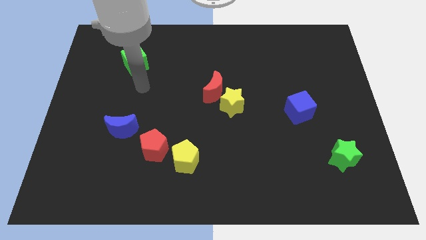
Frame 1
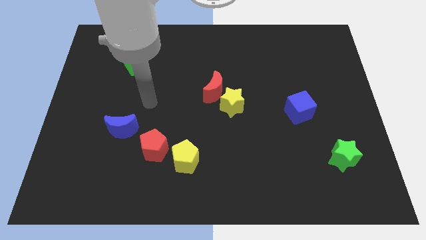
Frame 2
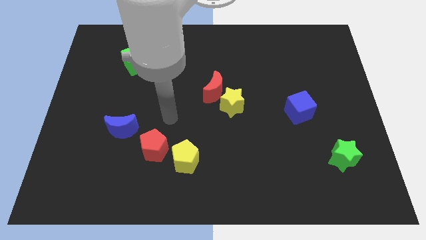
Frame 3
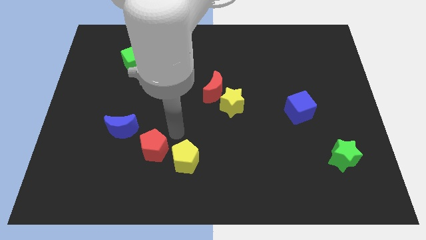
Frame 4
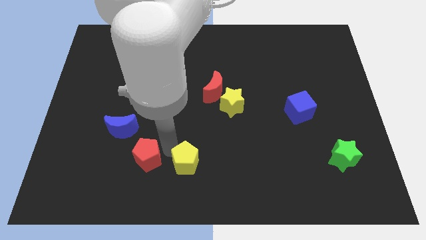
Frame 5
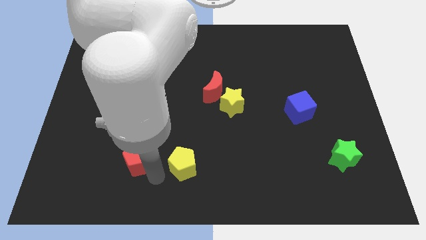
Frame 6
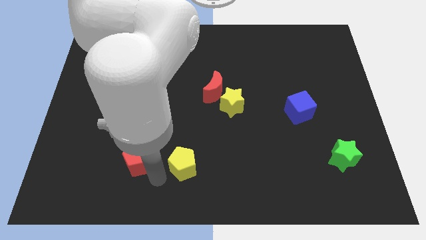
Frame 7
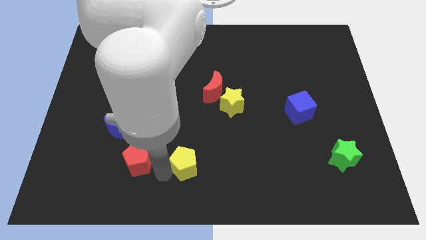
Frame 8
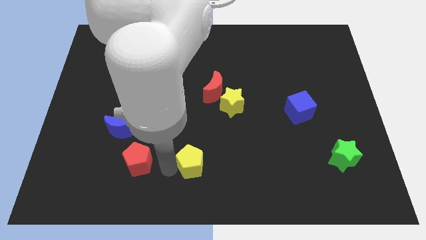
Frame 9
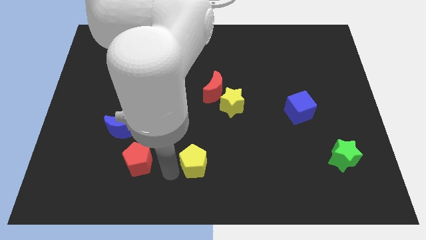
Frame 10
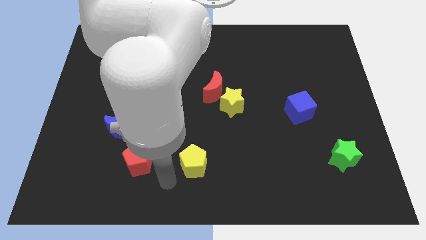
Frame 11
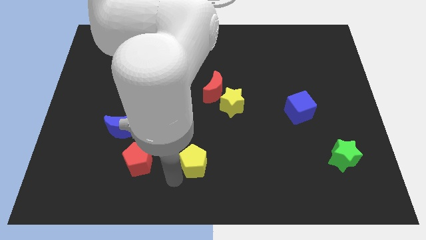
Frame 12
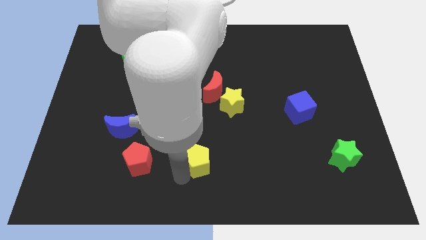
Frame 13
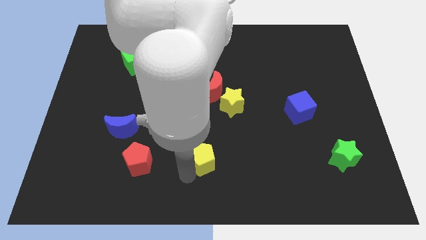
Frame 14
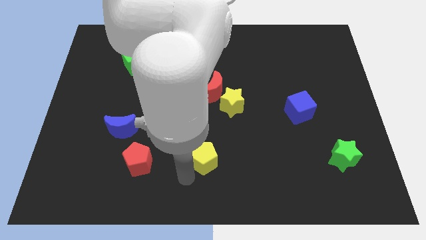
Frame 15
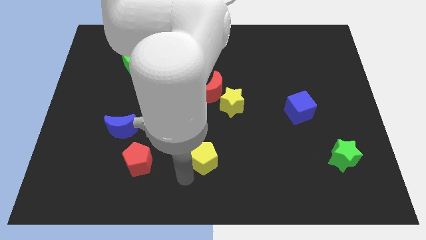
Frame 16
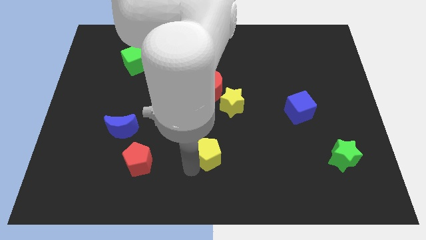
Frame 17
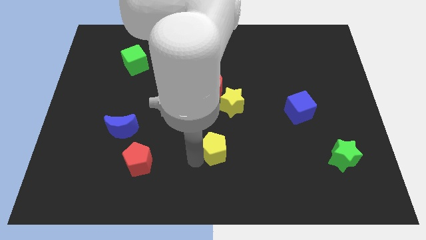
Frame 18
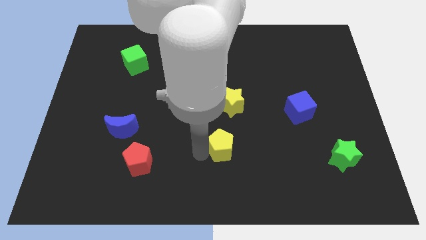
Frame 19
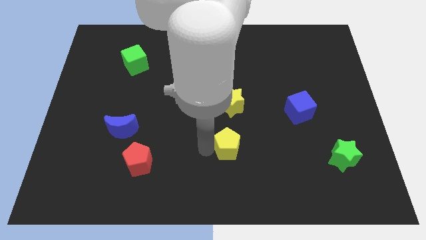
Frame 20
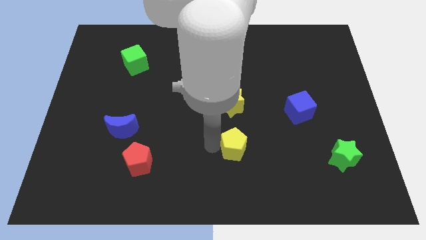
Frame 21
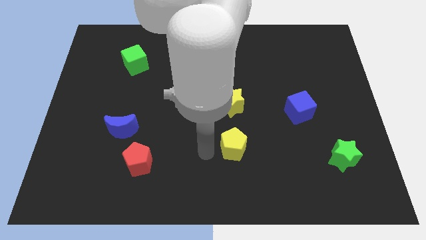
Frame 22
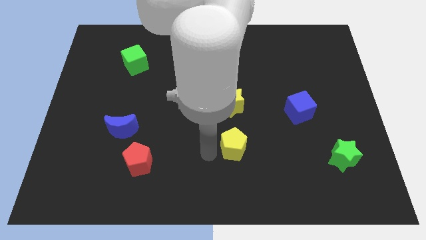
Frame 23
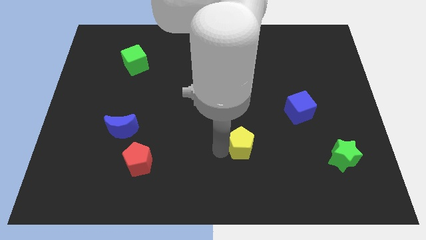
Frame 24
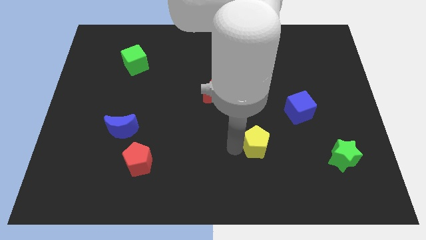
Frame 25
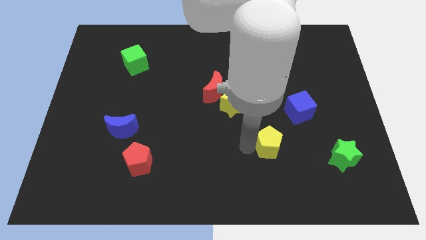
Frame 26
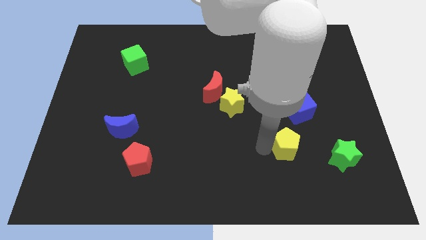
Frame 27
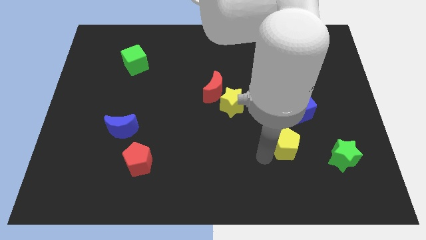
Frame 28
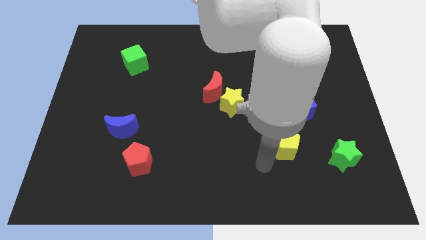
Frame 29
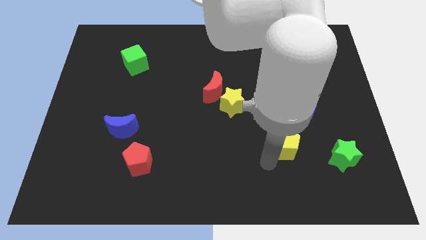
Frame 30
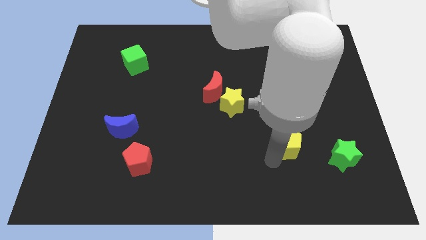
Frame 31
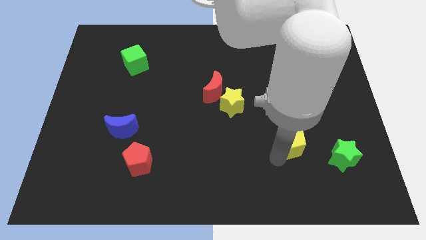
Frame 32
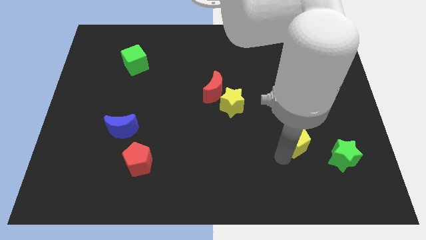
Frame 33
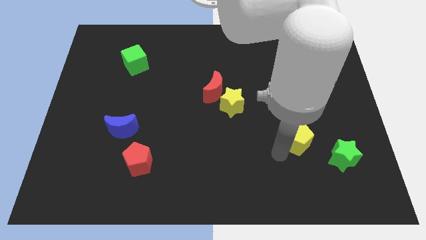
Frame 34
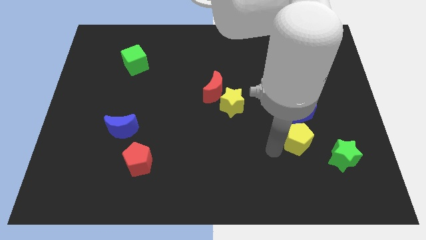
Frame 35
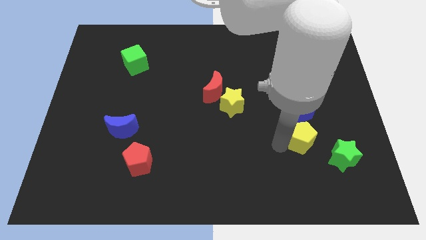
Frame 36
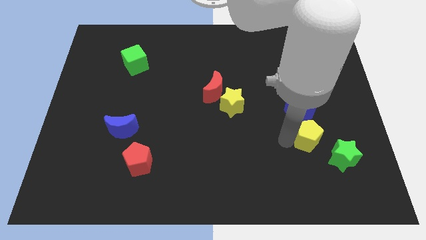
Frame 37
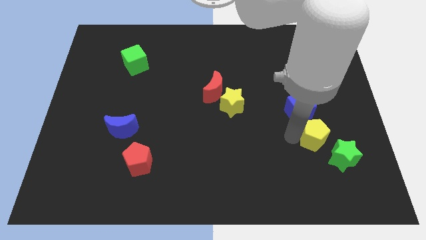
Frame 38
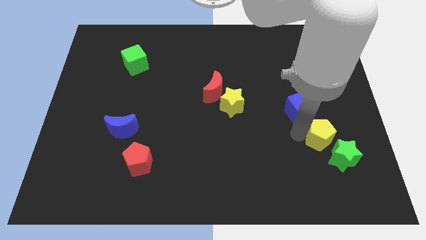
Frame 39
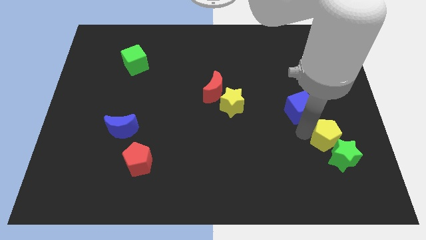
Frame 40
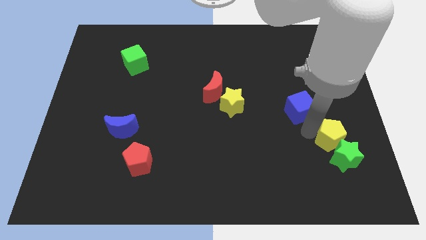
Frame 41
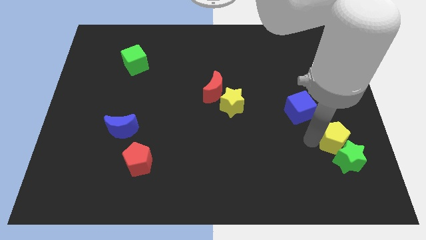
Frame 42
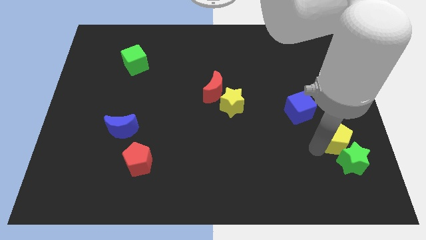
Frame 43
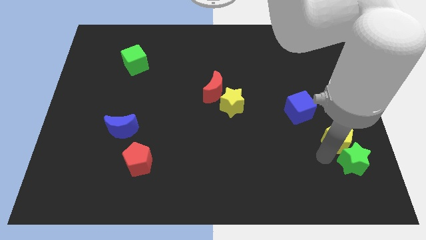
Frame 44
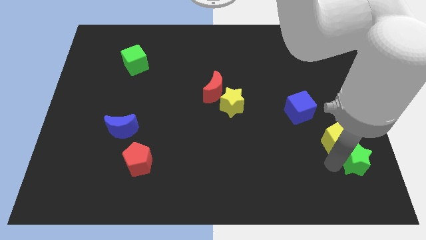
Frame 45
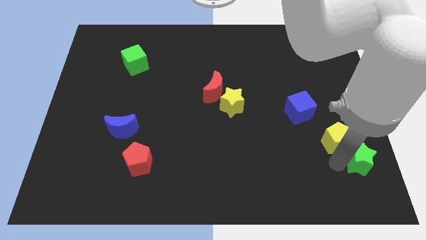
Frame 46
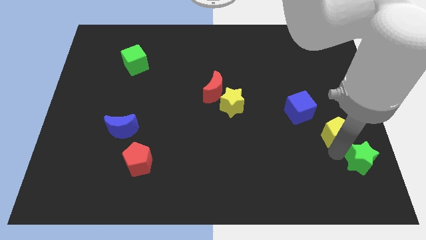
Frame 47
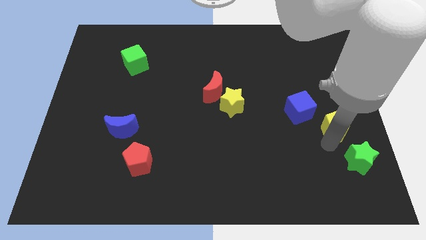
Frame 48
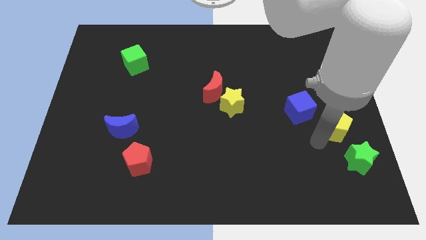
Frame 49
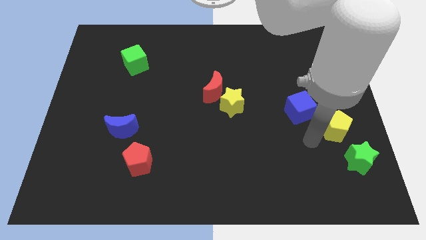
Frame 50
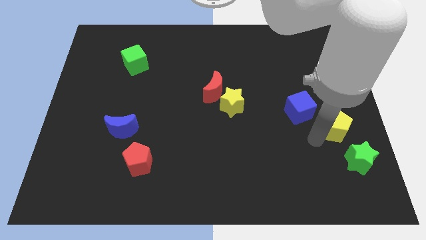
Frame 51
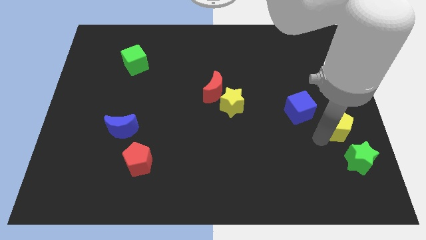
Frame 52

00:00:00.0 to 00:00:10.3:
slide the yellow pentagon to the right side of the board

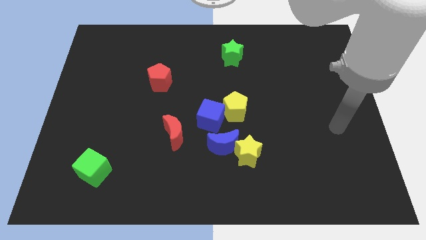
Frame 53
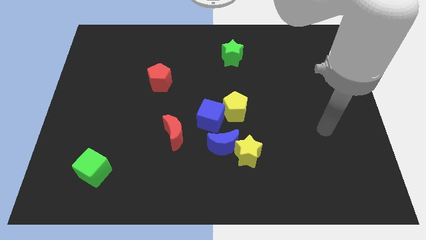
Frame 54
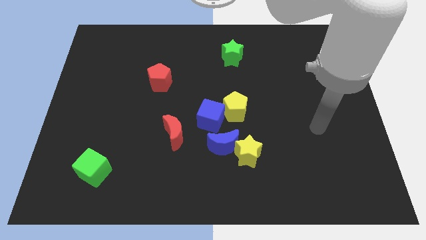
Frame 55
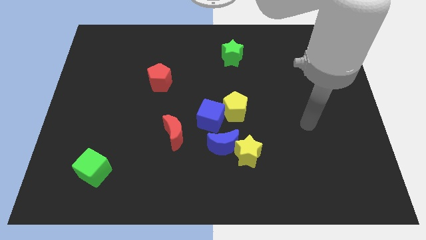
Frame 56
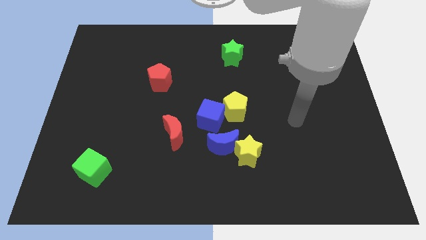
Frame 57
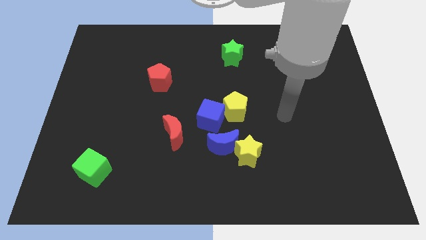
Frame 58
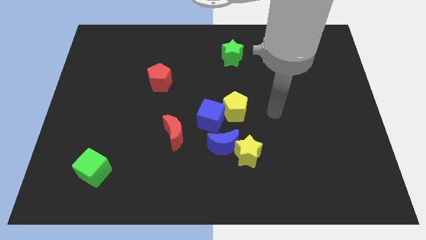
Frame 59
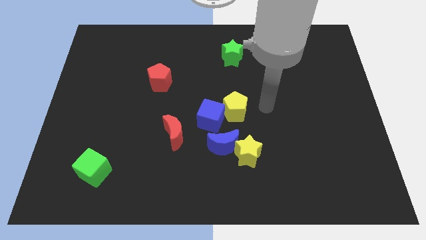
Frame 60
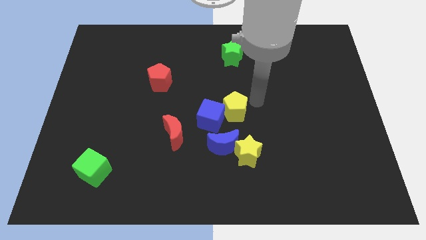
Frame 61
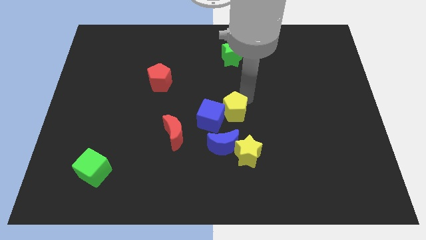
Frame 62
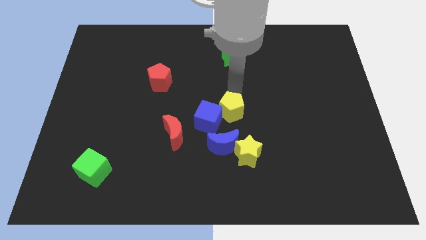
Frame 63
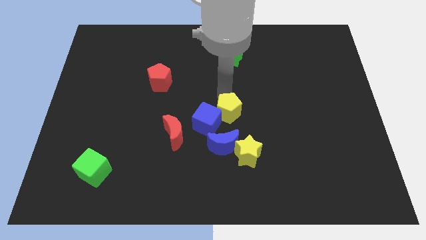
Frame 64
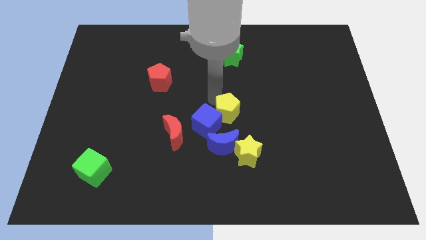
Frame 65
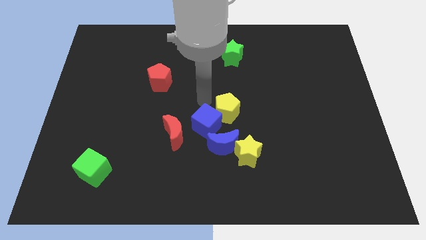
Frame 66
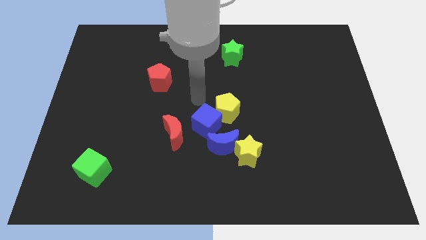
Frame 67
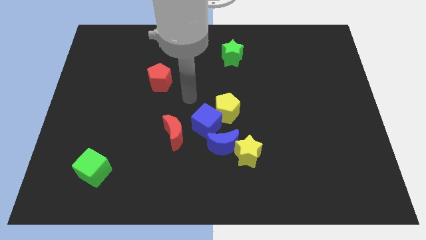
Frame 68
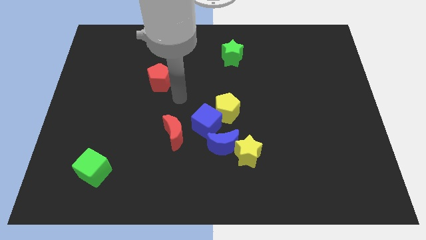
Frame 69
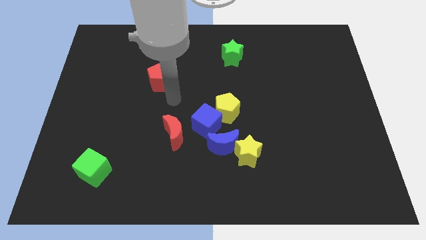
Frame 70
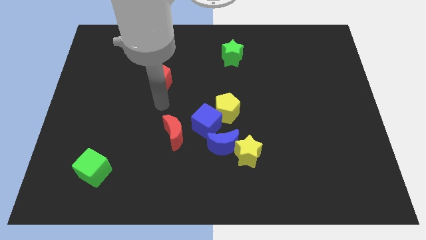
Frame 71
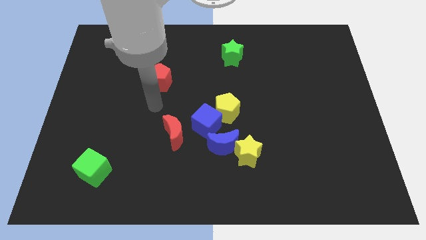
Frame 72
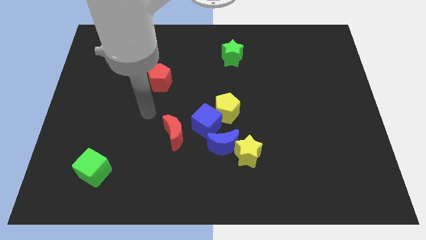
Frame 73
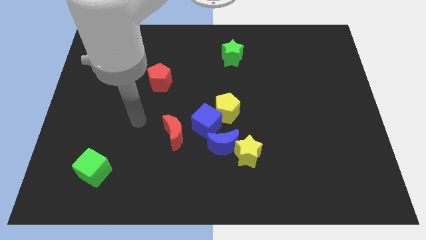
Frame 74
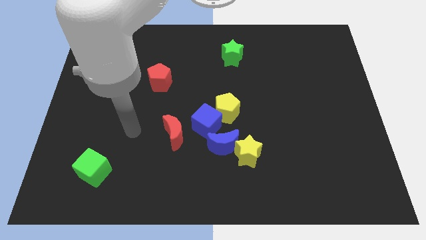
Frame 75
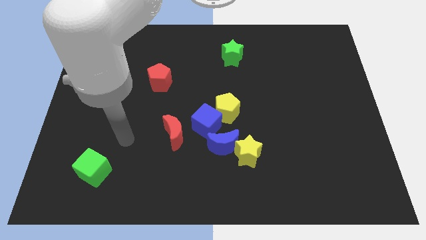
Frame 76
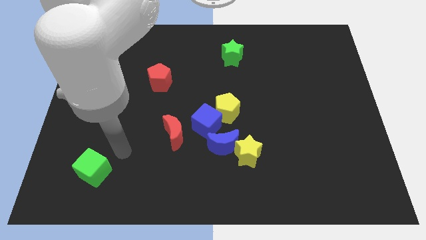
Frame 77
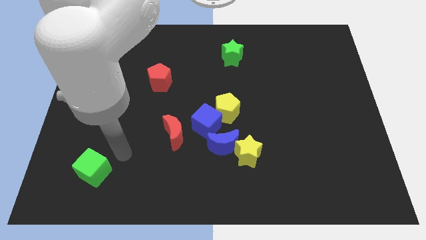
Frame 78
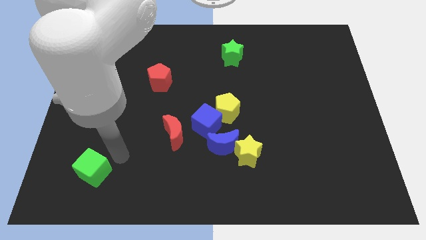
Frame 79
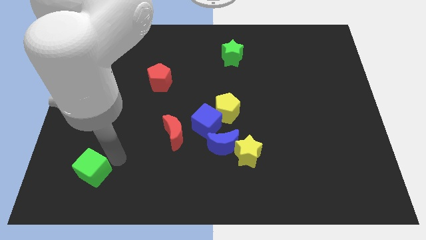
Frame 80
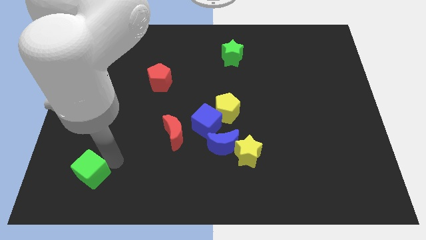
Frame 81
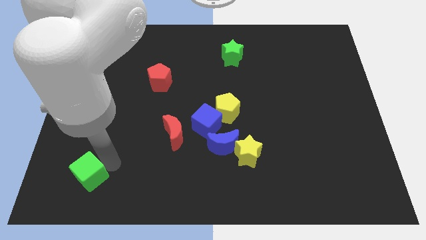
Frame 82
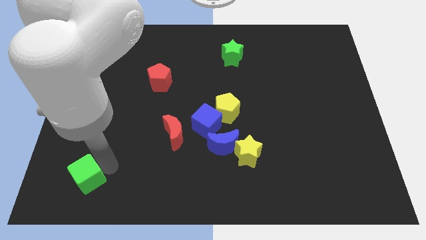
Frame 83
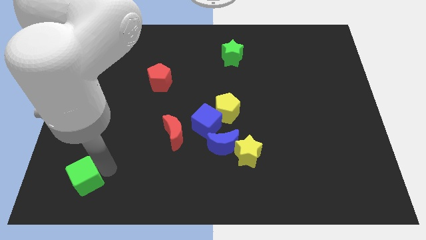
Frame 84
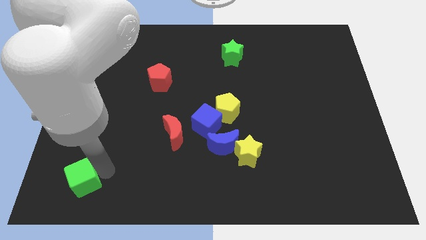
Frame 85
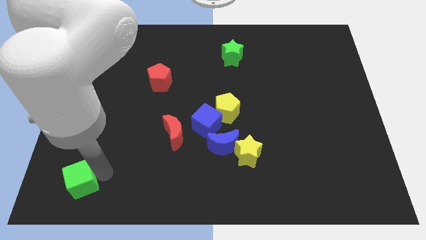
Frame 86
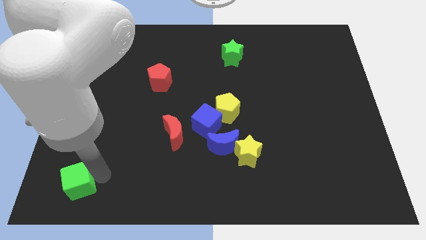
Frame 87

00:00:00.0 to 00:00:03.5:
put the green cube to the bottom left corner
